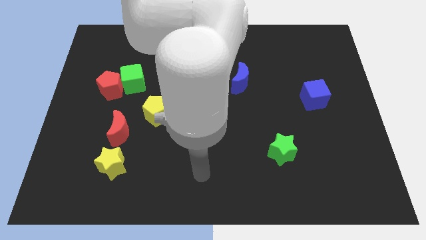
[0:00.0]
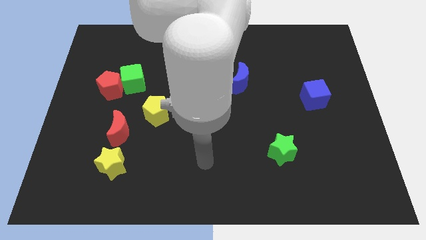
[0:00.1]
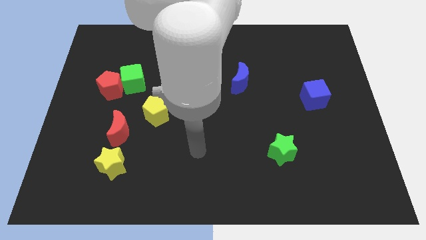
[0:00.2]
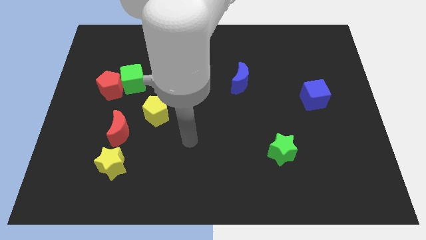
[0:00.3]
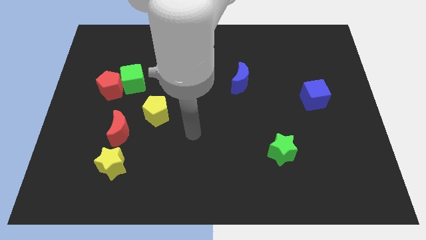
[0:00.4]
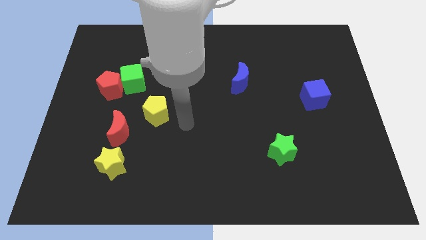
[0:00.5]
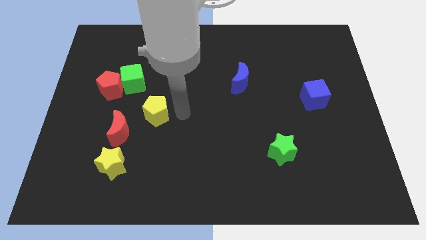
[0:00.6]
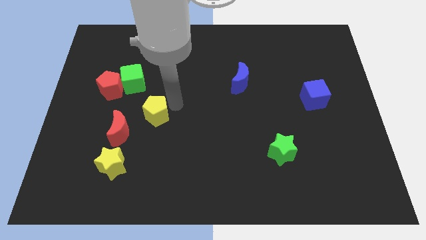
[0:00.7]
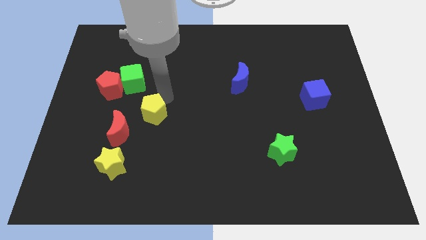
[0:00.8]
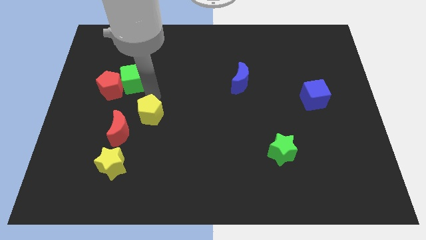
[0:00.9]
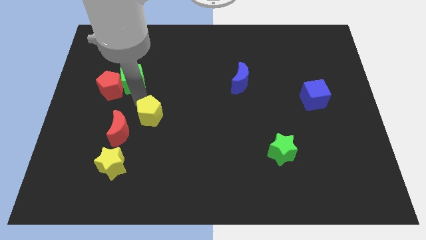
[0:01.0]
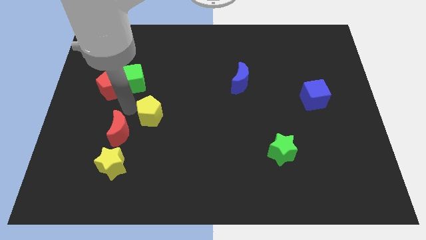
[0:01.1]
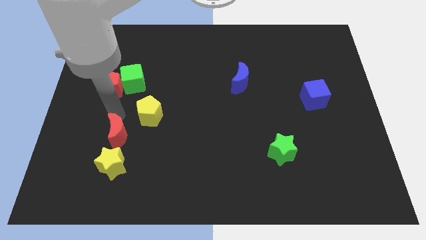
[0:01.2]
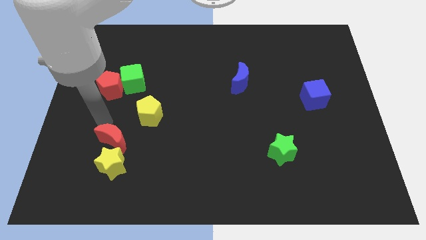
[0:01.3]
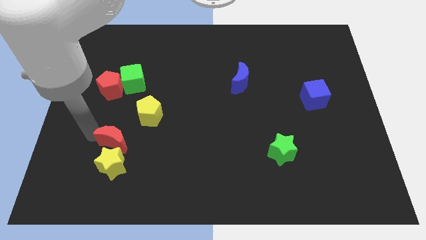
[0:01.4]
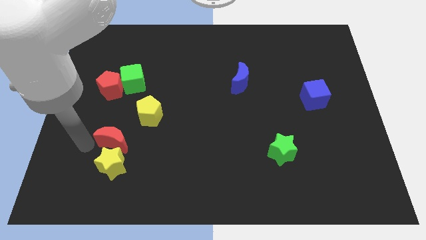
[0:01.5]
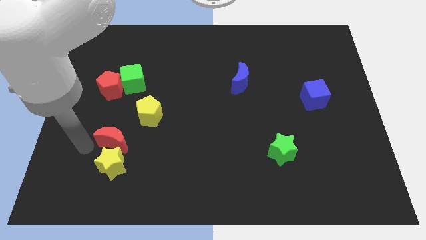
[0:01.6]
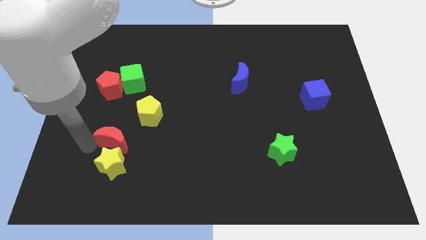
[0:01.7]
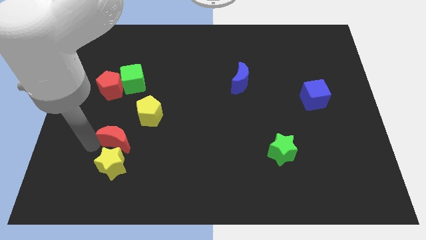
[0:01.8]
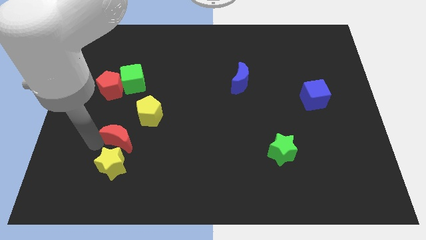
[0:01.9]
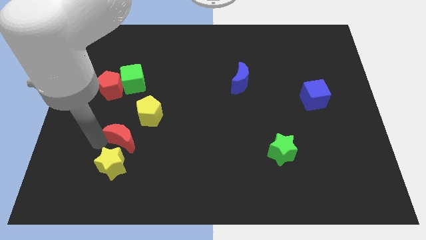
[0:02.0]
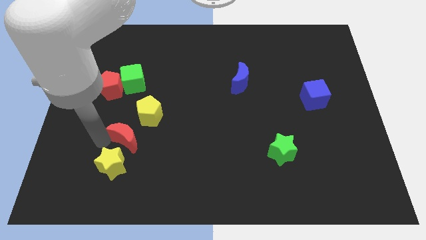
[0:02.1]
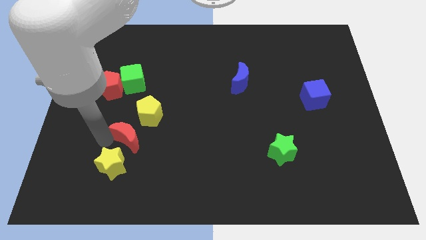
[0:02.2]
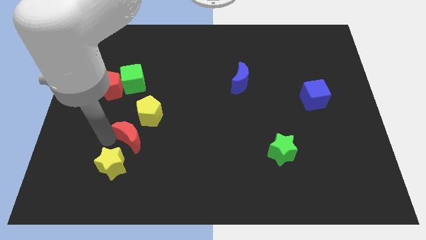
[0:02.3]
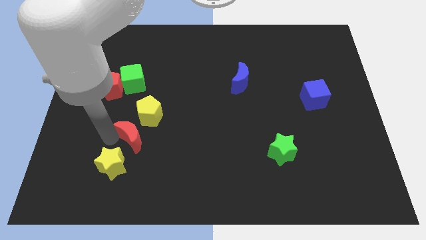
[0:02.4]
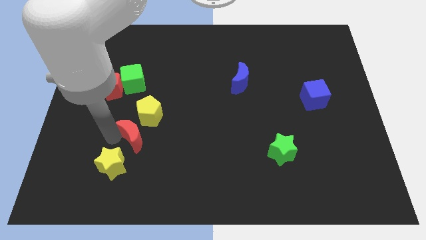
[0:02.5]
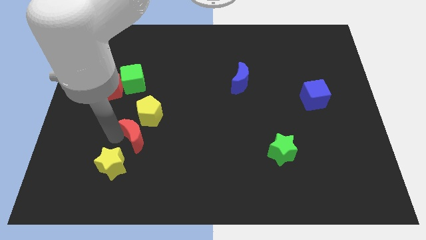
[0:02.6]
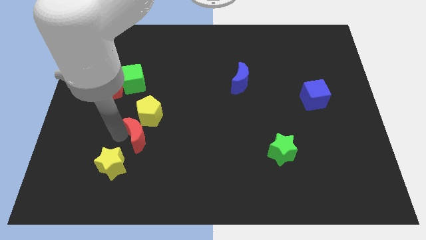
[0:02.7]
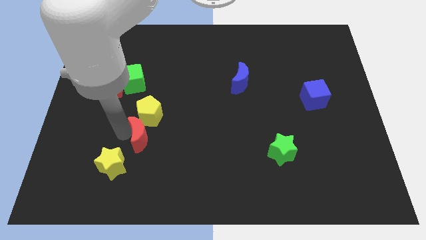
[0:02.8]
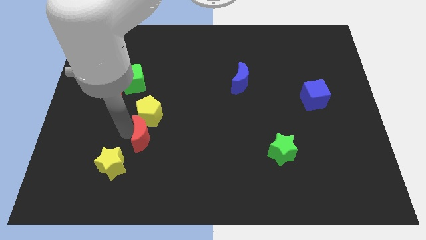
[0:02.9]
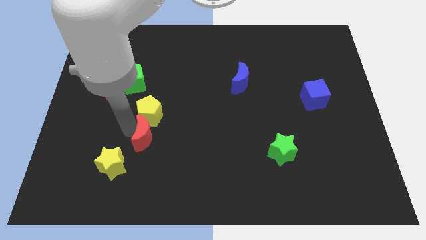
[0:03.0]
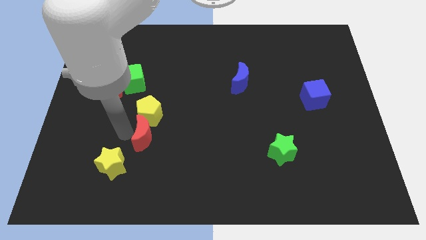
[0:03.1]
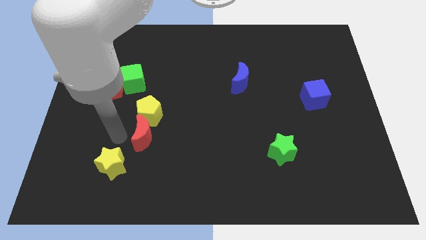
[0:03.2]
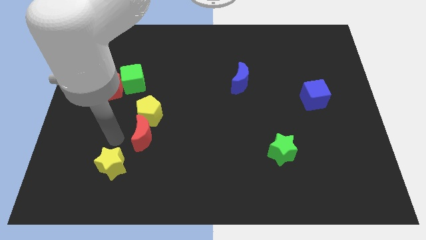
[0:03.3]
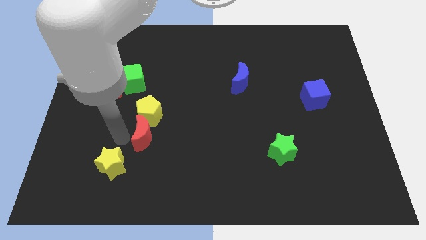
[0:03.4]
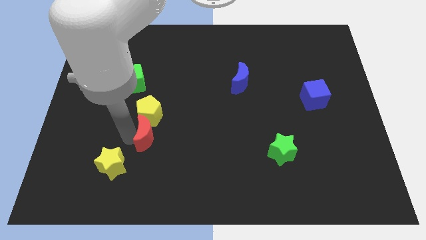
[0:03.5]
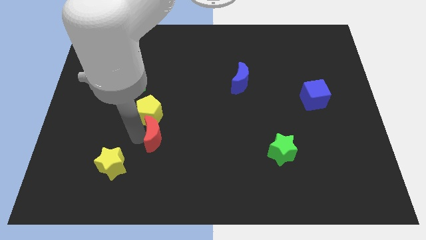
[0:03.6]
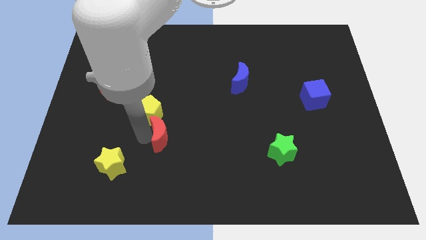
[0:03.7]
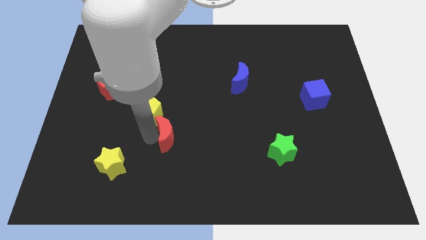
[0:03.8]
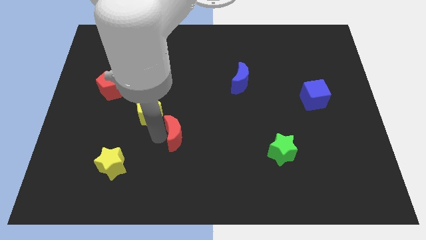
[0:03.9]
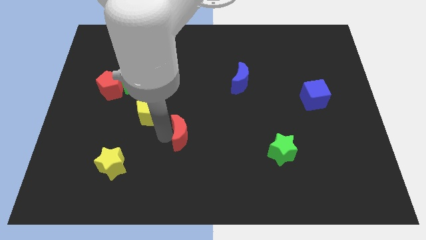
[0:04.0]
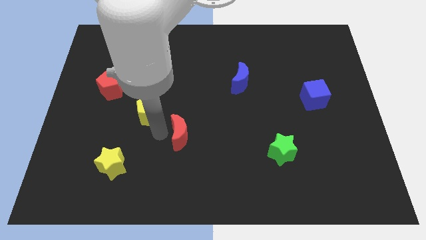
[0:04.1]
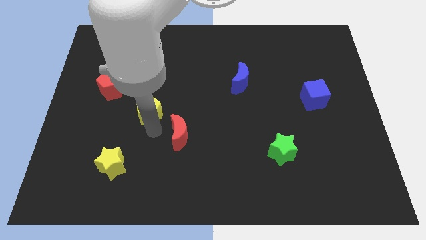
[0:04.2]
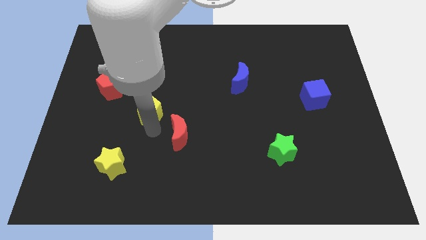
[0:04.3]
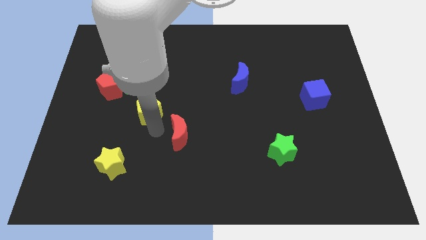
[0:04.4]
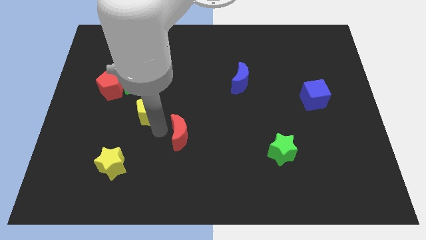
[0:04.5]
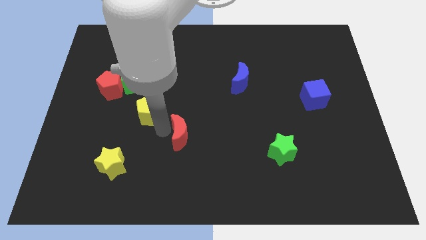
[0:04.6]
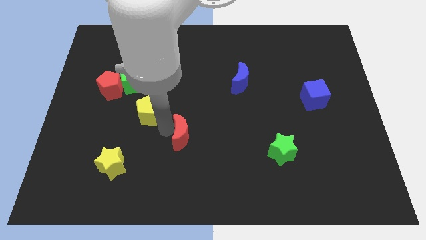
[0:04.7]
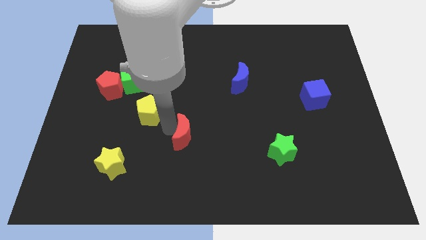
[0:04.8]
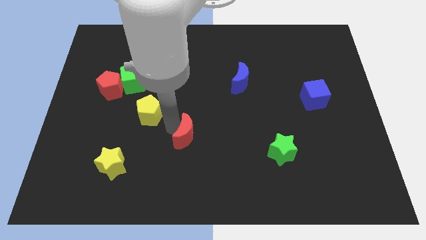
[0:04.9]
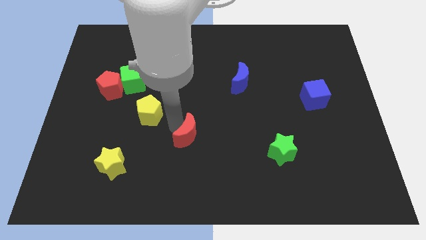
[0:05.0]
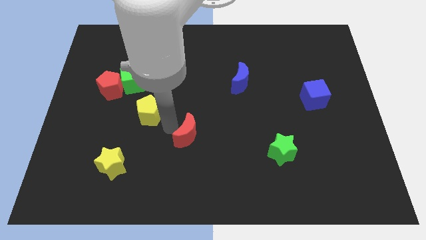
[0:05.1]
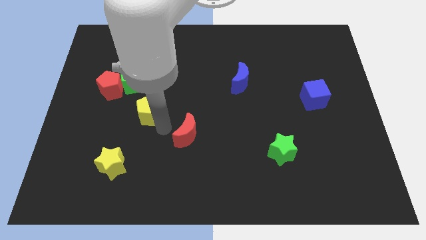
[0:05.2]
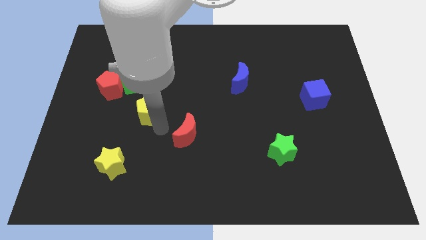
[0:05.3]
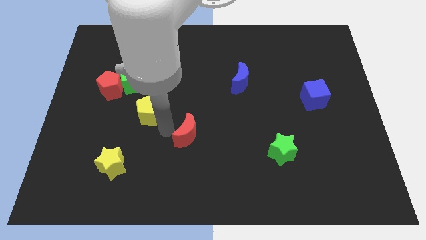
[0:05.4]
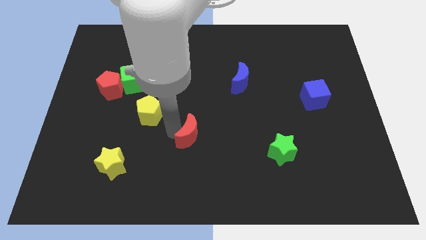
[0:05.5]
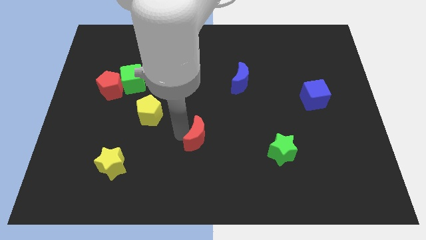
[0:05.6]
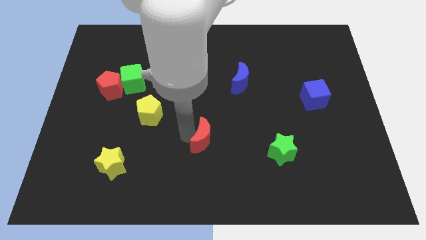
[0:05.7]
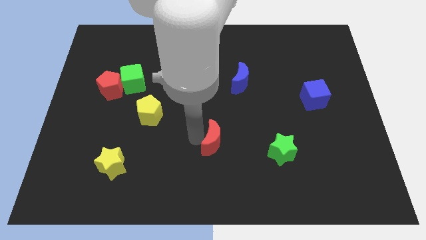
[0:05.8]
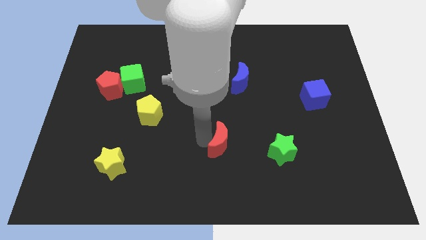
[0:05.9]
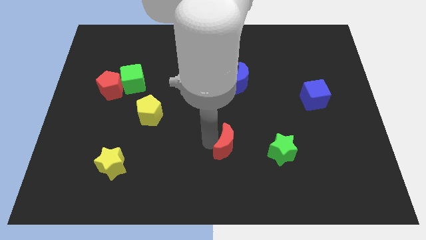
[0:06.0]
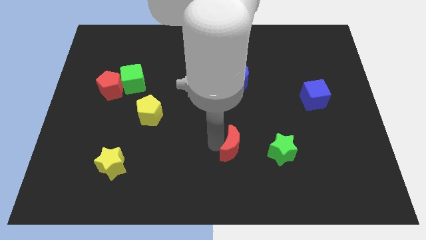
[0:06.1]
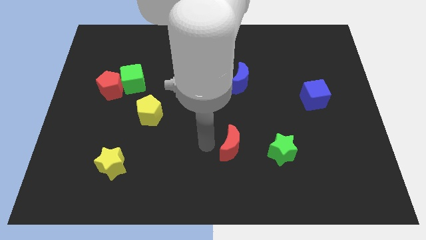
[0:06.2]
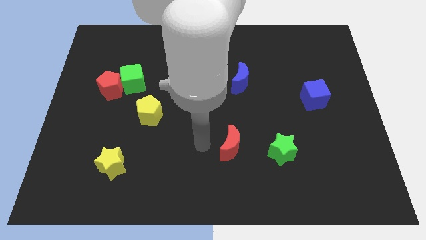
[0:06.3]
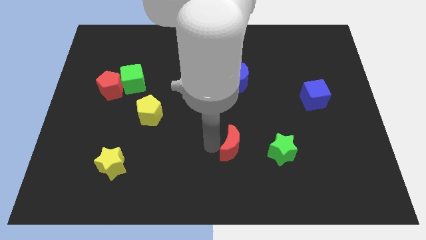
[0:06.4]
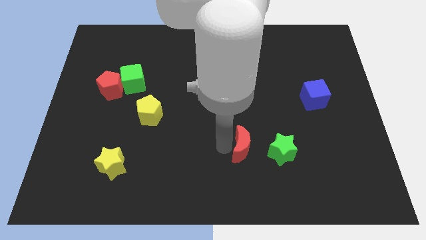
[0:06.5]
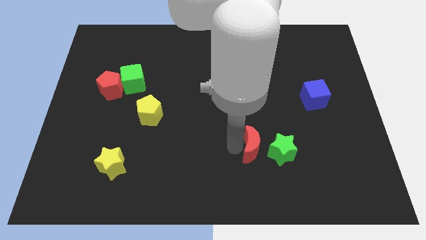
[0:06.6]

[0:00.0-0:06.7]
put the red moon towards the green star

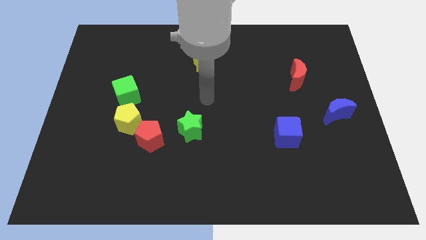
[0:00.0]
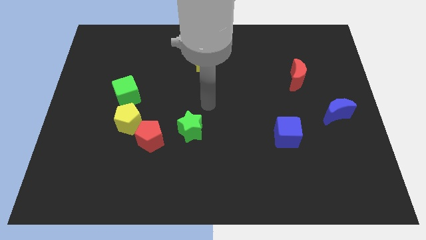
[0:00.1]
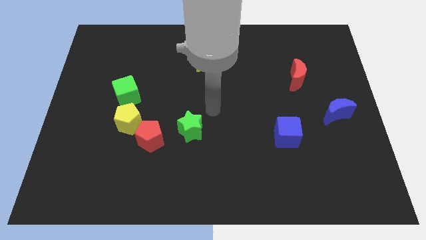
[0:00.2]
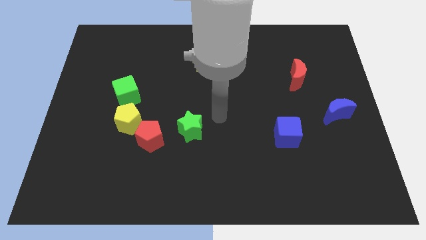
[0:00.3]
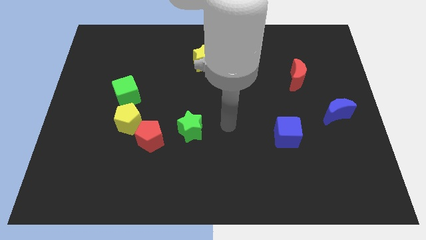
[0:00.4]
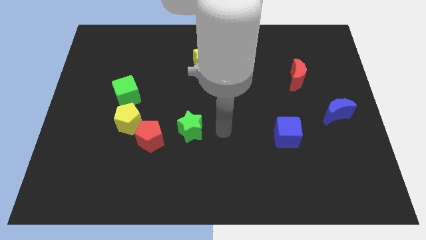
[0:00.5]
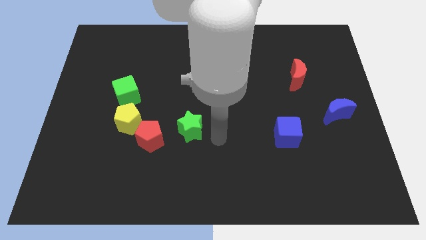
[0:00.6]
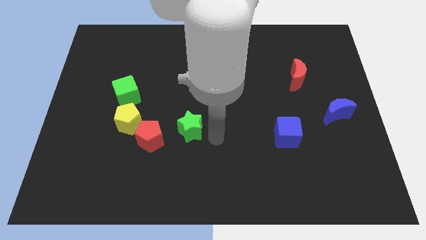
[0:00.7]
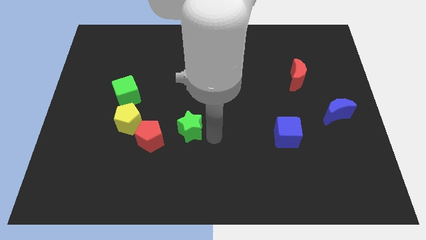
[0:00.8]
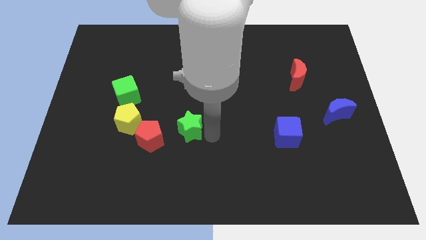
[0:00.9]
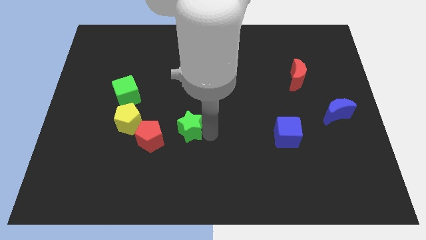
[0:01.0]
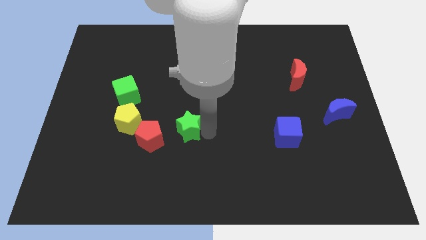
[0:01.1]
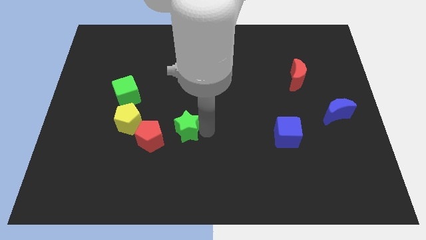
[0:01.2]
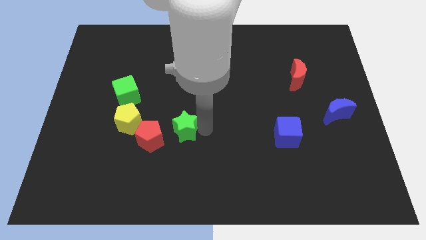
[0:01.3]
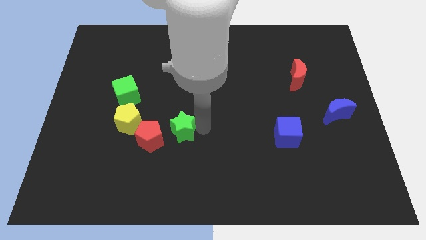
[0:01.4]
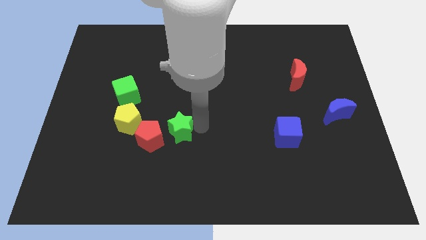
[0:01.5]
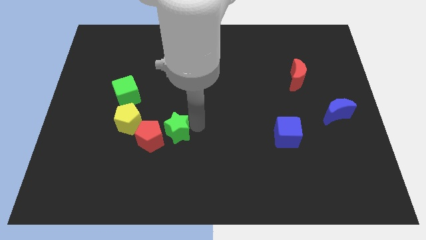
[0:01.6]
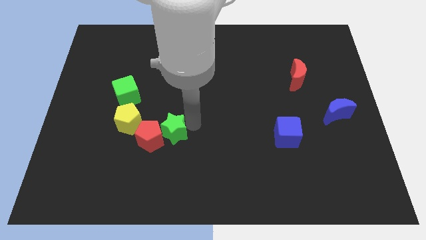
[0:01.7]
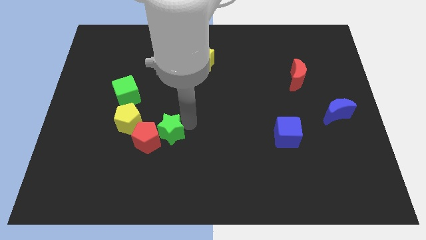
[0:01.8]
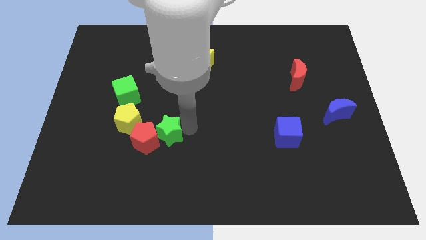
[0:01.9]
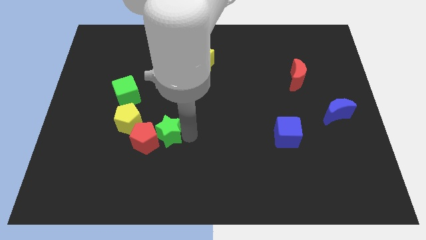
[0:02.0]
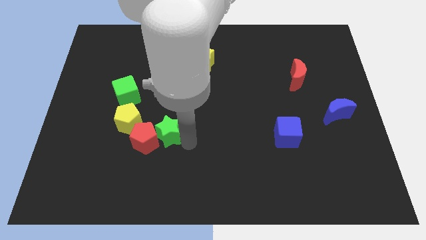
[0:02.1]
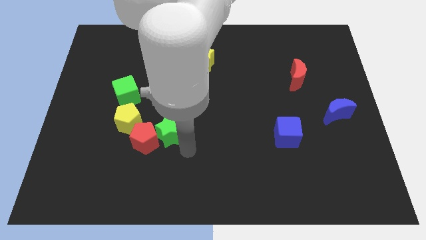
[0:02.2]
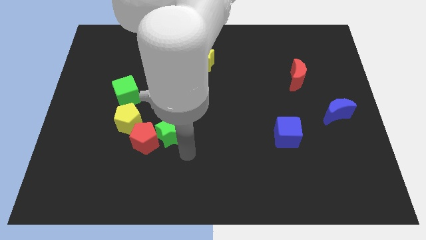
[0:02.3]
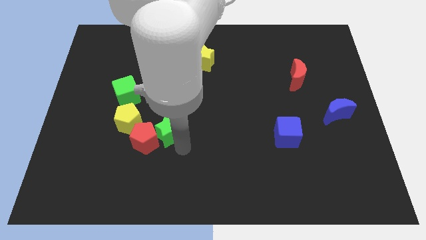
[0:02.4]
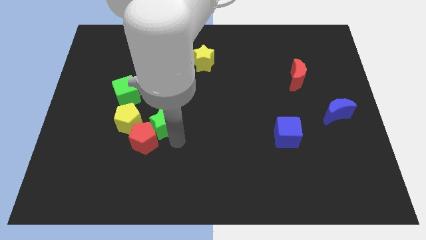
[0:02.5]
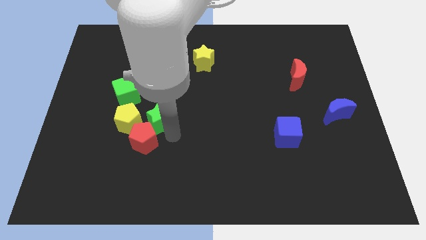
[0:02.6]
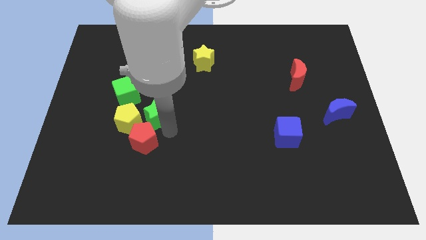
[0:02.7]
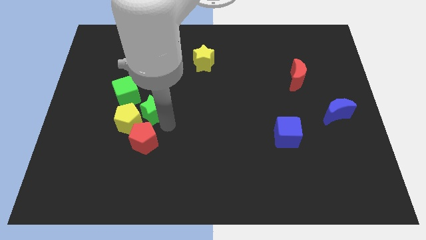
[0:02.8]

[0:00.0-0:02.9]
move the green star towards the yellow pentagon
